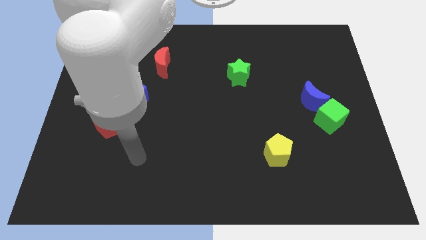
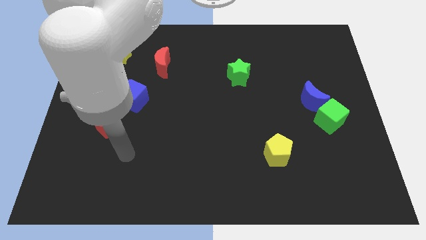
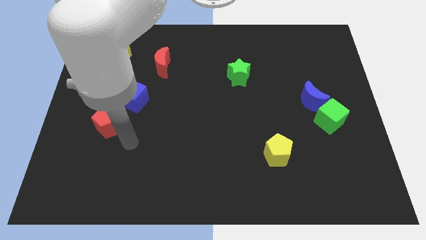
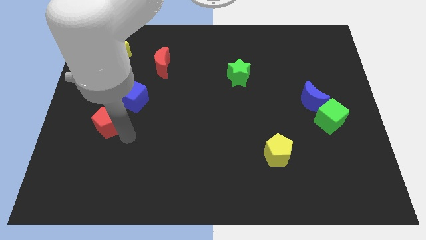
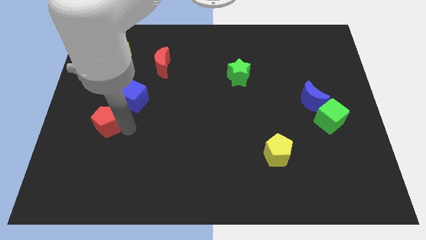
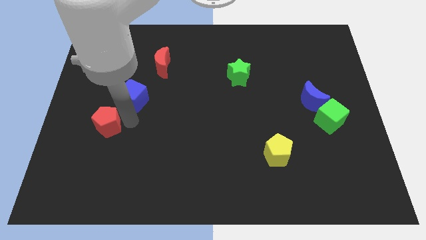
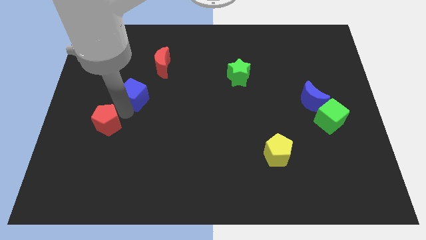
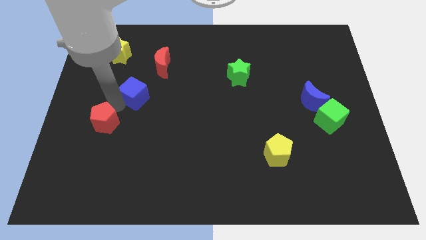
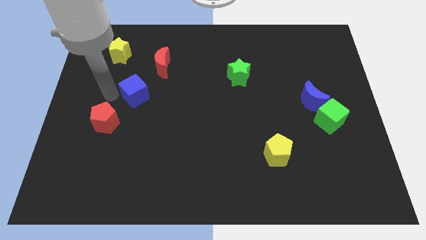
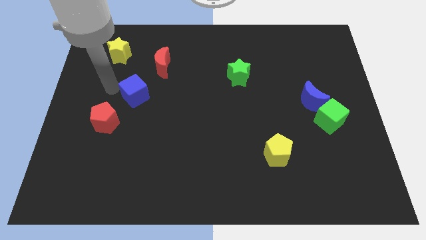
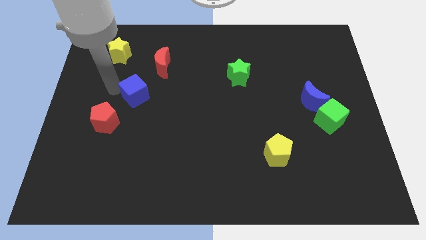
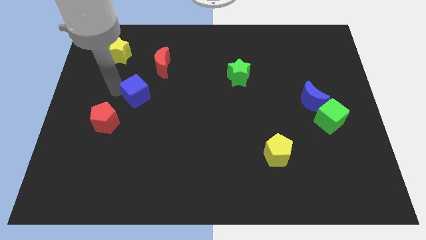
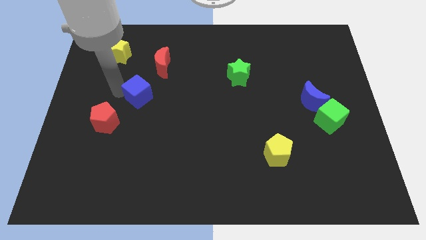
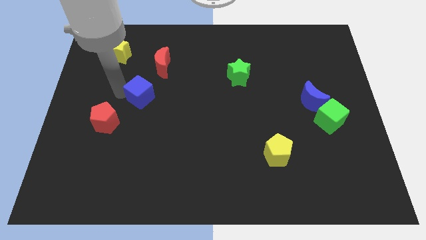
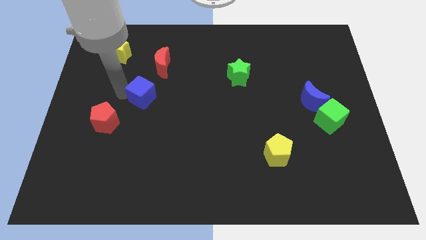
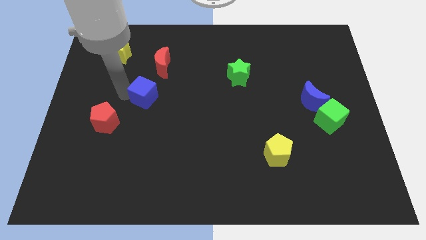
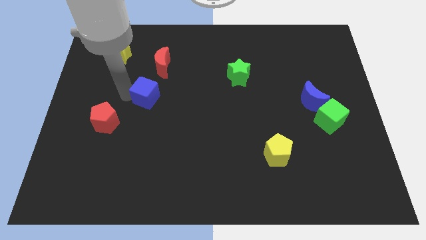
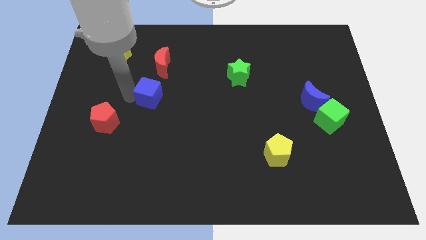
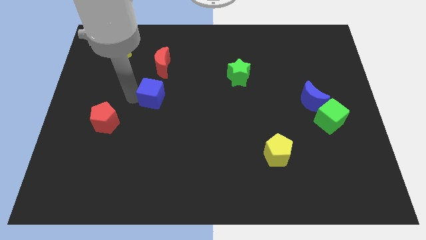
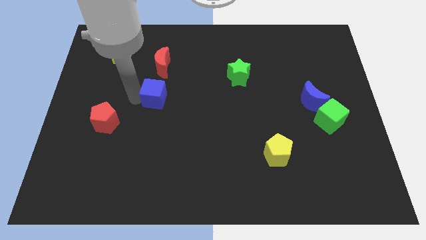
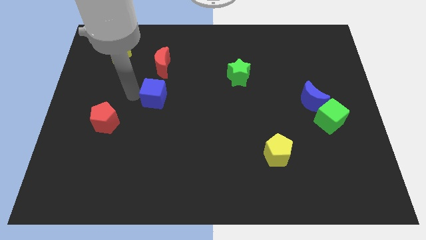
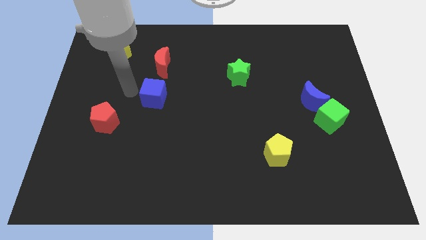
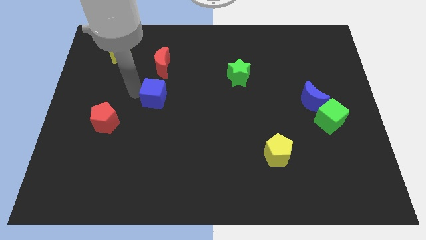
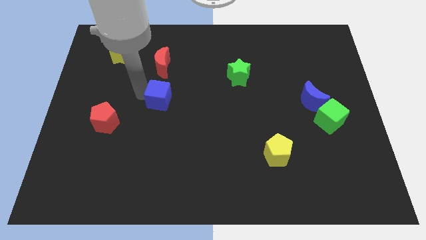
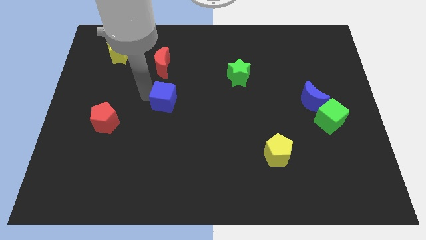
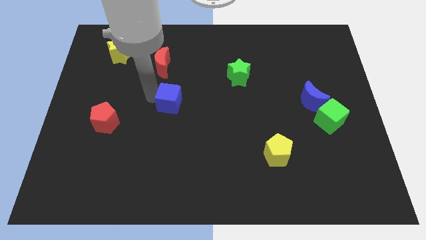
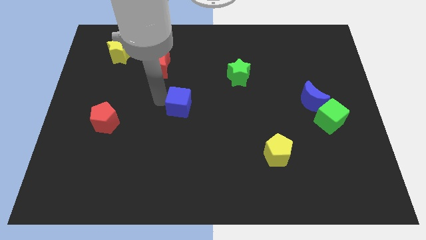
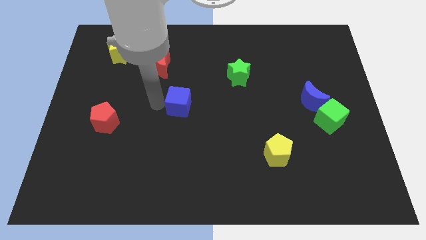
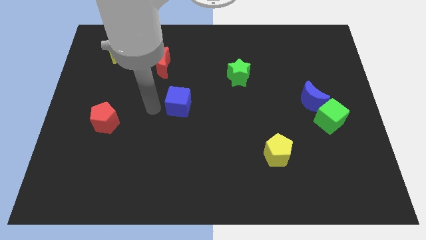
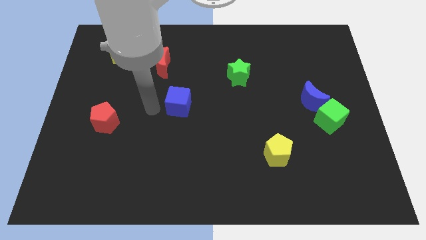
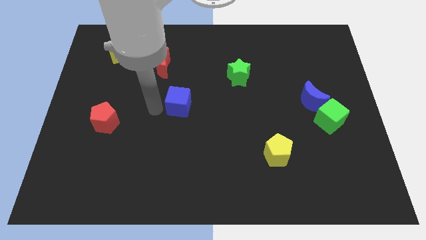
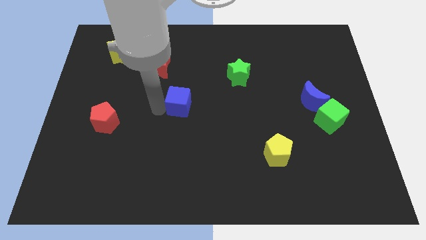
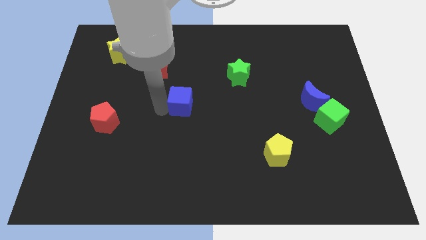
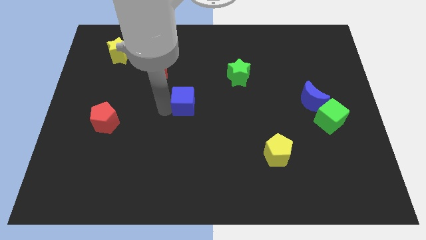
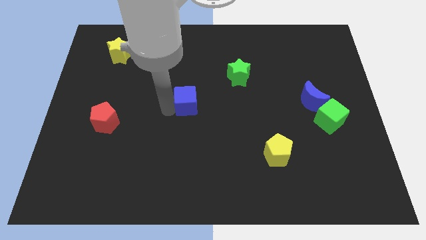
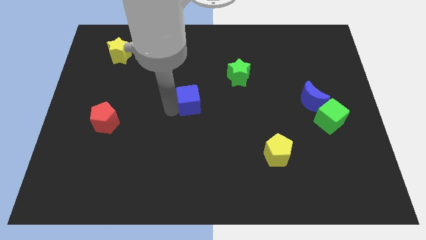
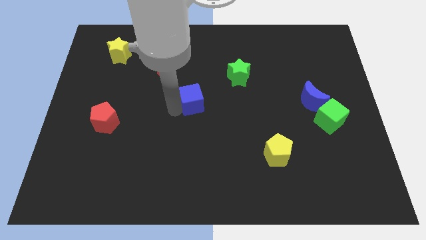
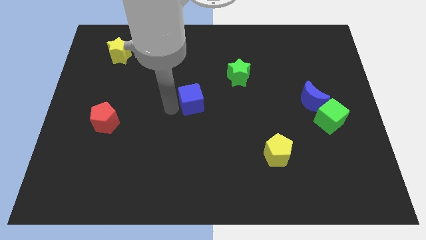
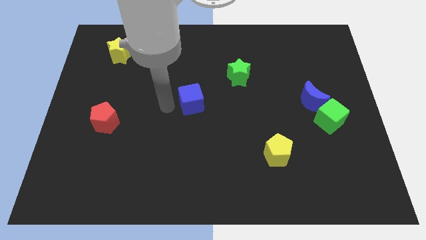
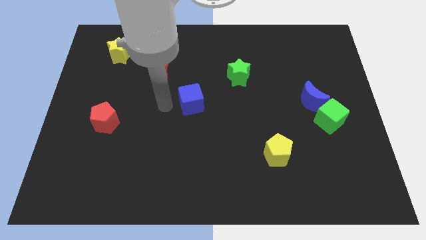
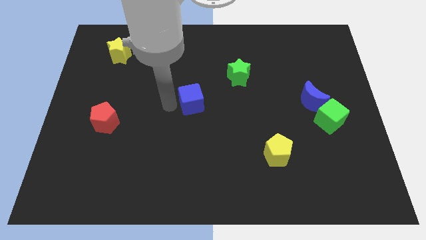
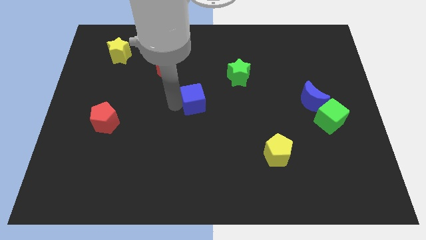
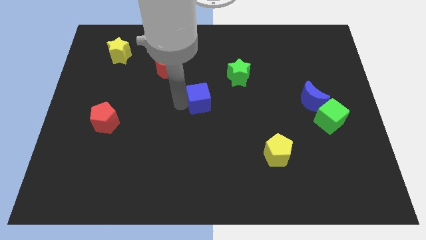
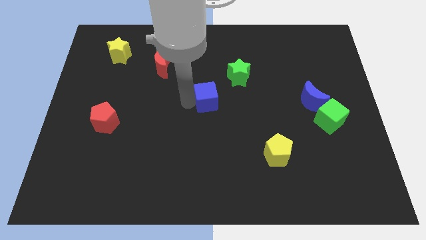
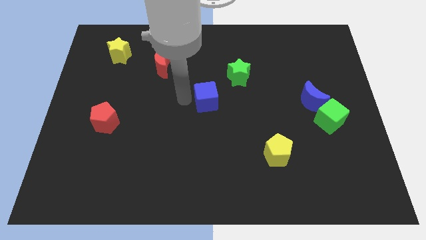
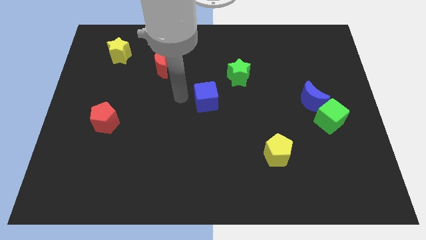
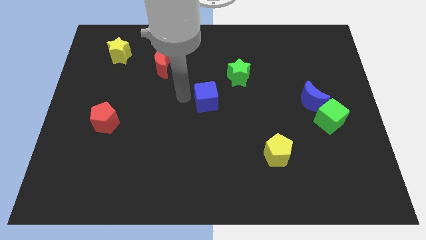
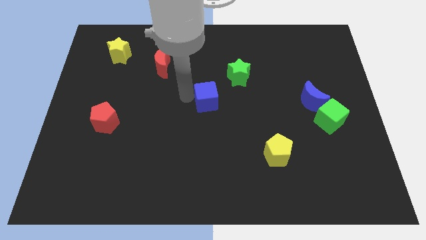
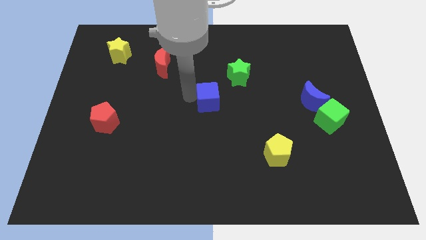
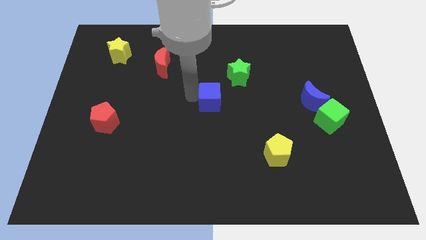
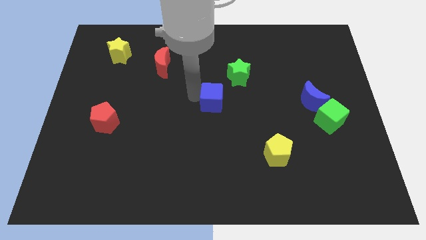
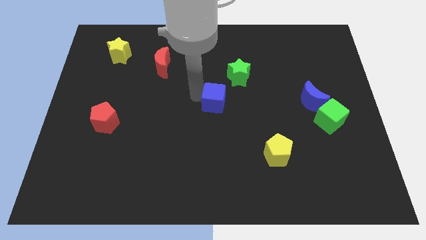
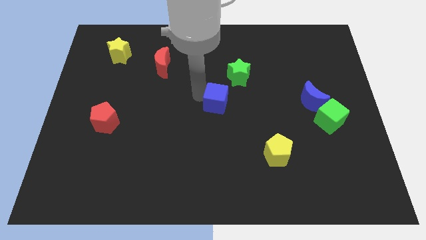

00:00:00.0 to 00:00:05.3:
push the blue cube right

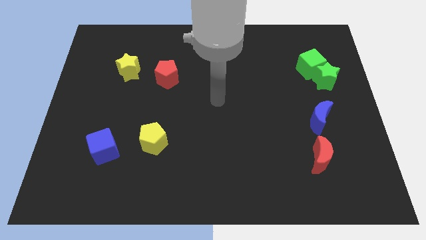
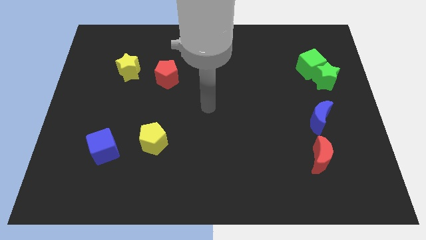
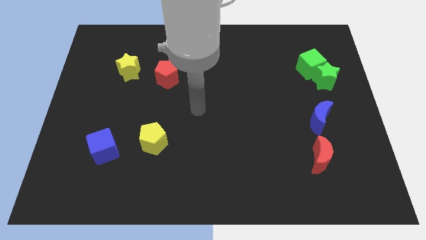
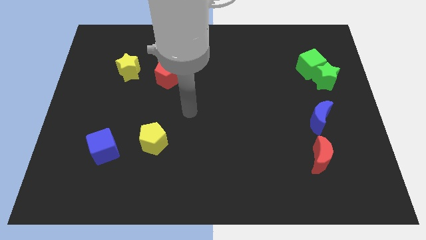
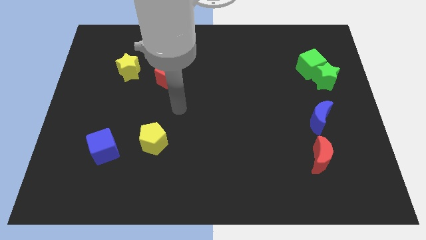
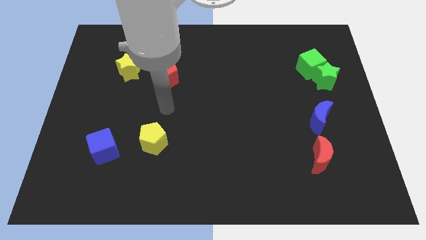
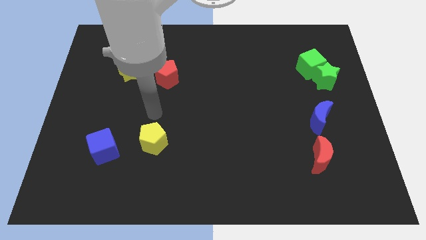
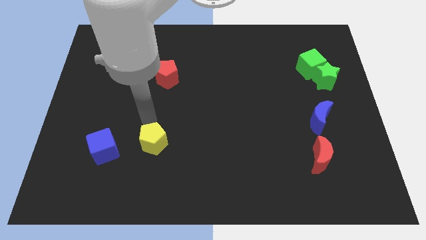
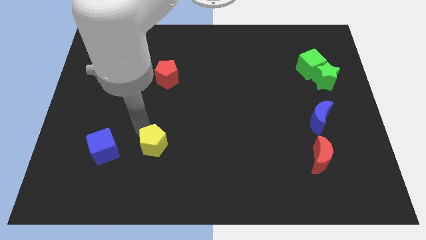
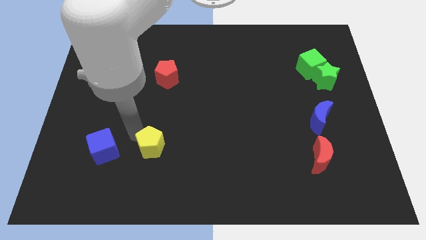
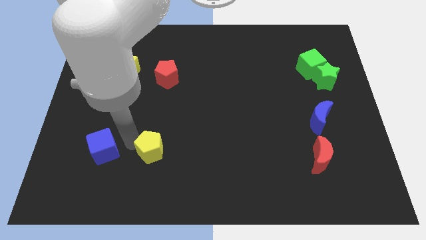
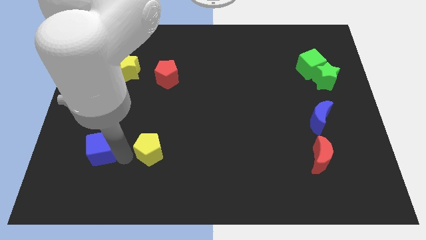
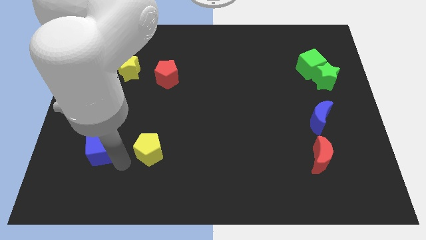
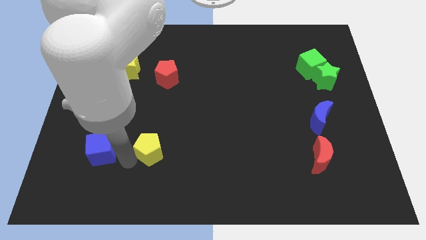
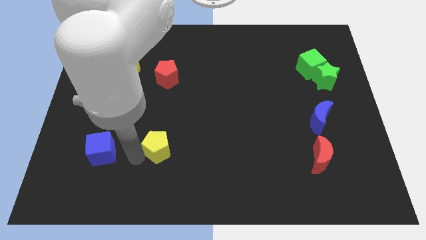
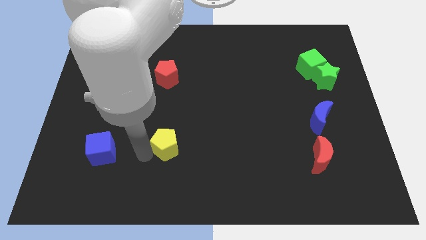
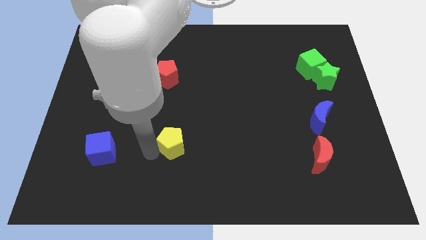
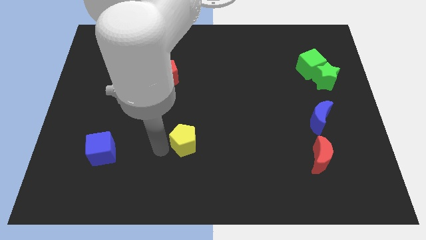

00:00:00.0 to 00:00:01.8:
slightly push the yellow pentagon to the right

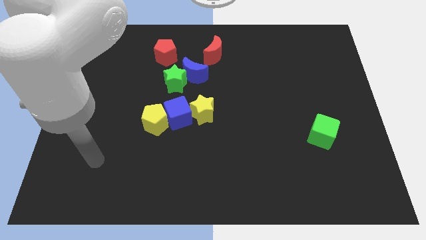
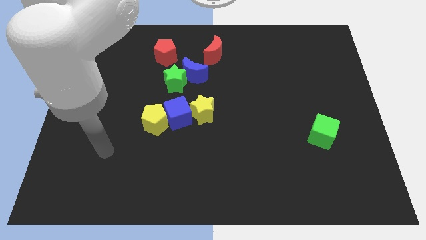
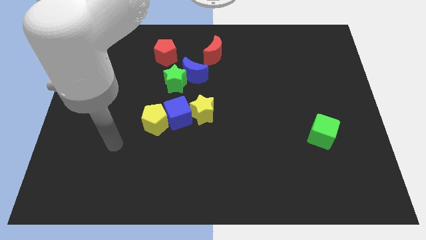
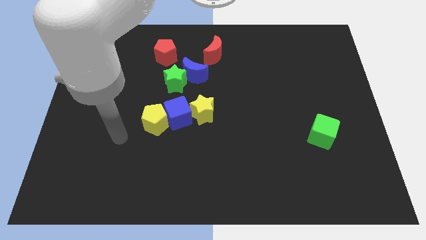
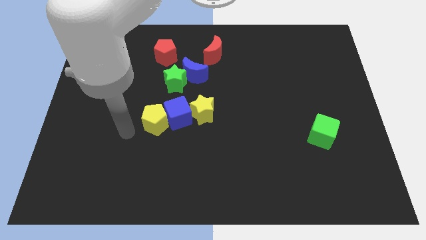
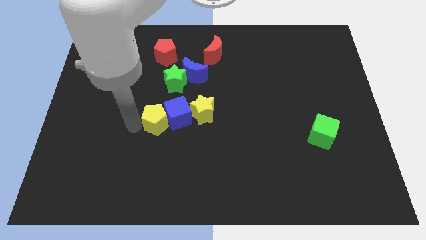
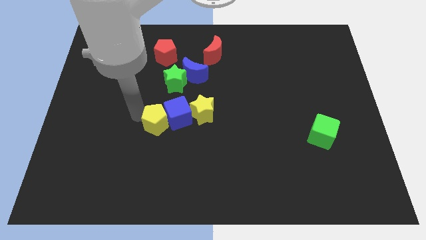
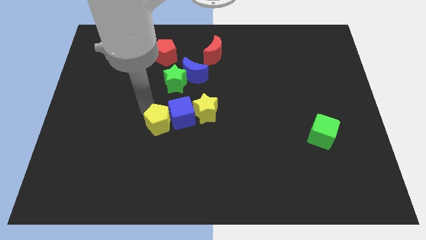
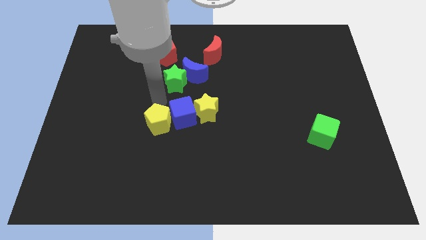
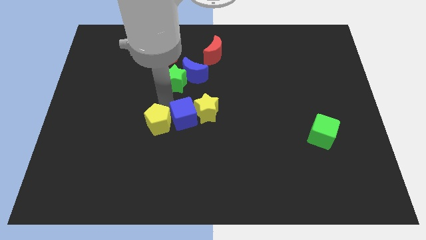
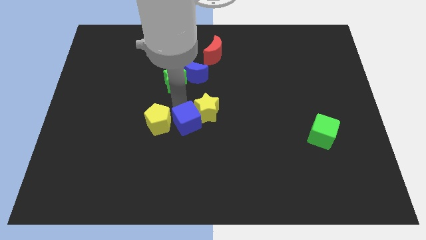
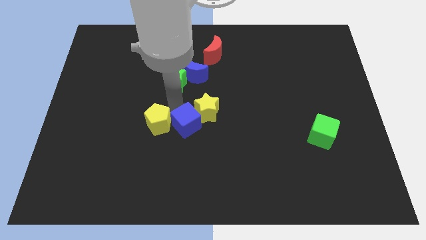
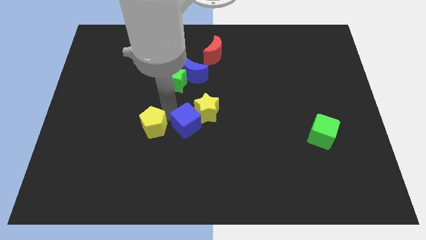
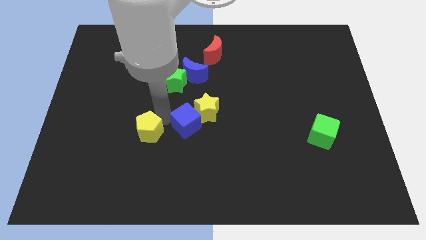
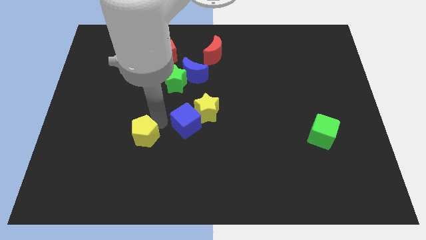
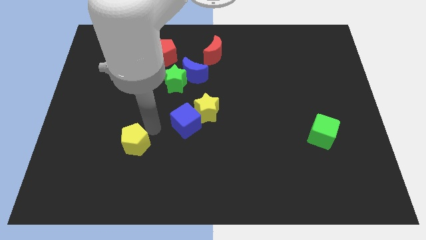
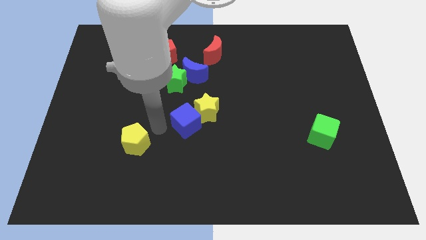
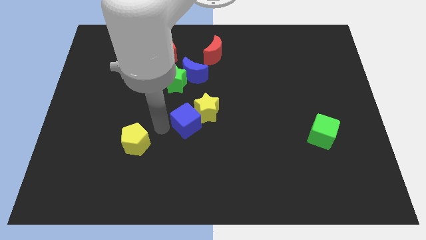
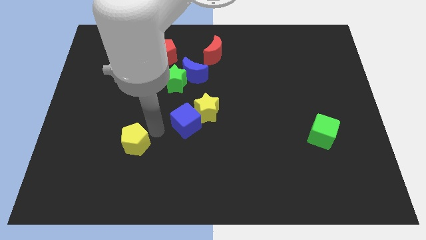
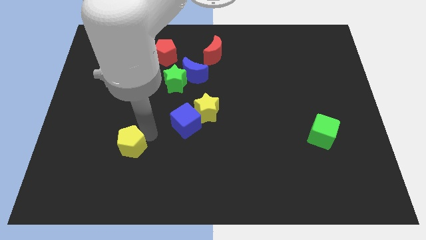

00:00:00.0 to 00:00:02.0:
move the yellow pentagon a little down and to the left diagonally
